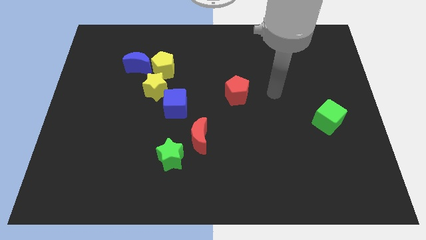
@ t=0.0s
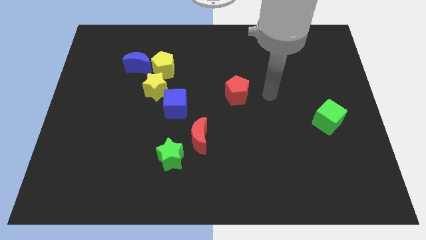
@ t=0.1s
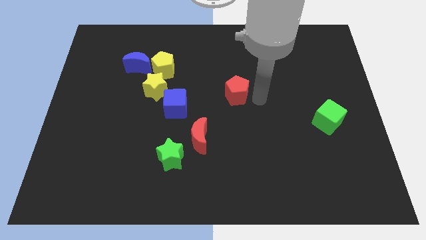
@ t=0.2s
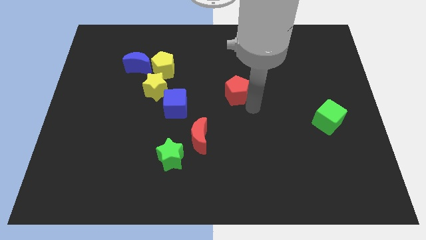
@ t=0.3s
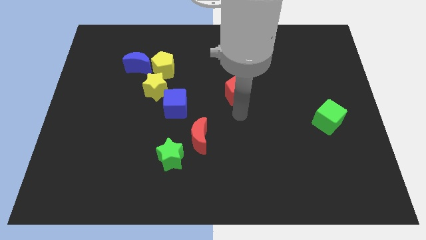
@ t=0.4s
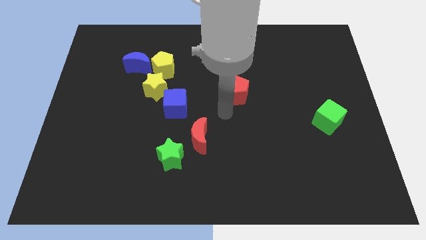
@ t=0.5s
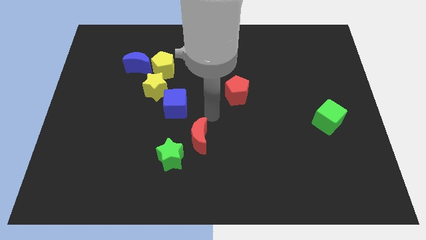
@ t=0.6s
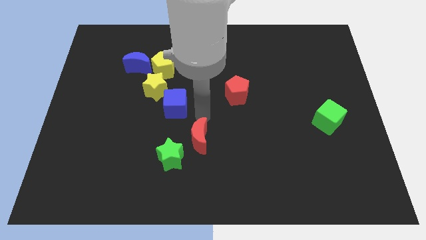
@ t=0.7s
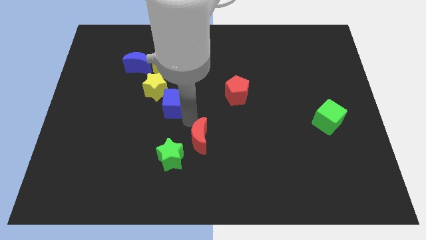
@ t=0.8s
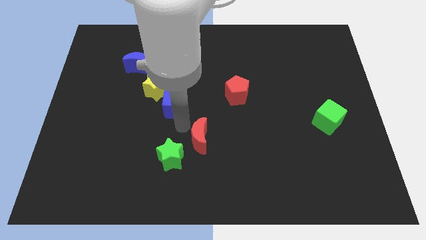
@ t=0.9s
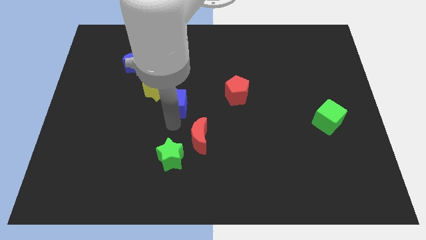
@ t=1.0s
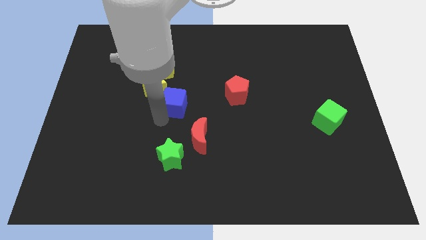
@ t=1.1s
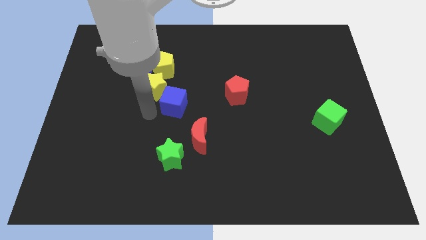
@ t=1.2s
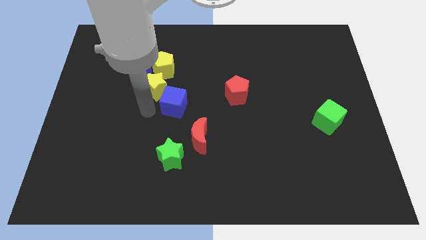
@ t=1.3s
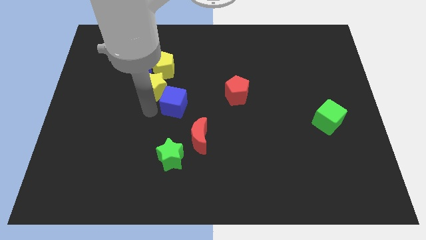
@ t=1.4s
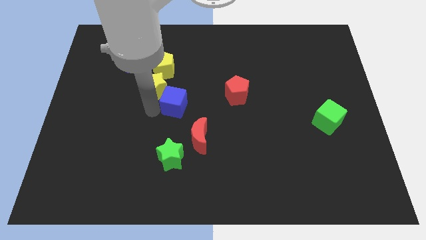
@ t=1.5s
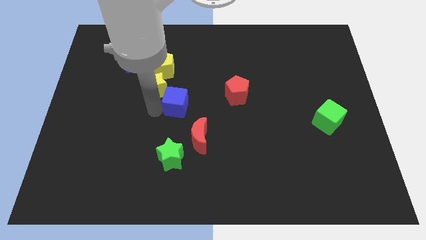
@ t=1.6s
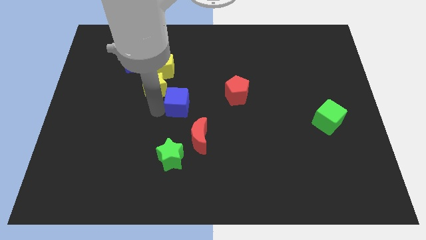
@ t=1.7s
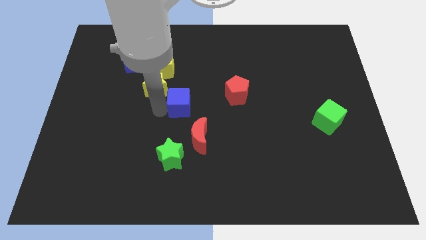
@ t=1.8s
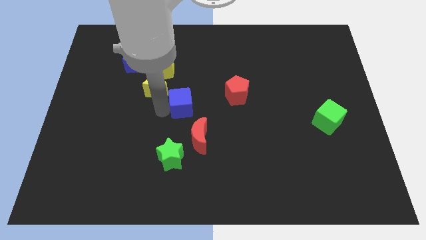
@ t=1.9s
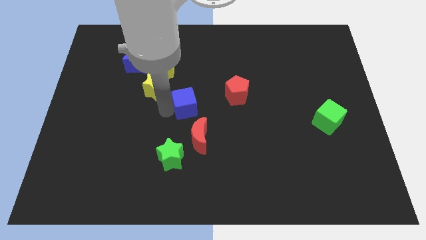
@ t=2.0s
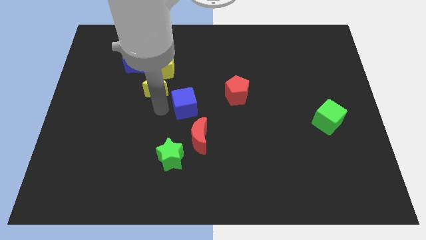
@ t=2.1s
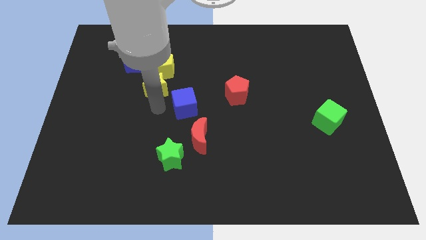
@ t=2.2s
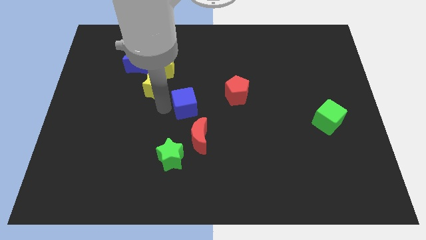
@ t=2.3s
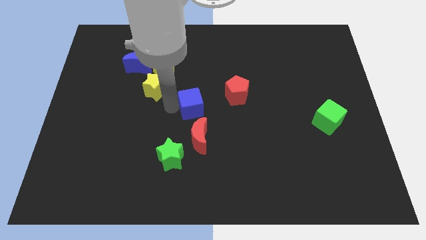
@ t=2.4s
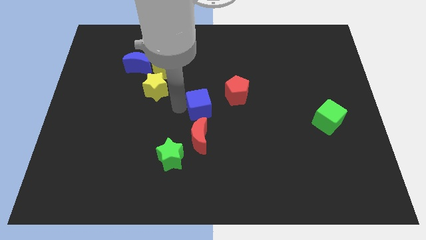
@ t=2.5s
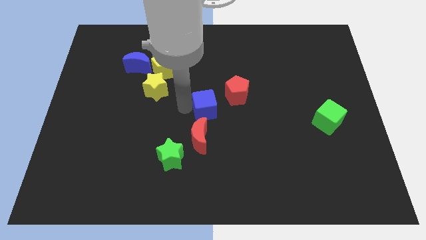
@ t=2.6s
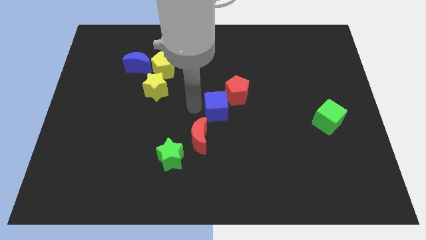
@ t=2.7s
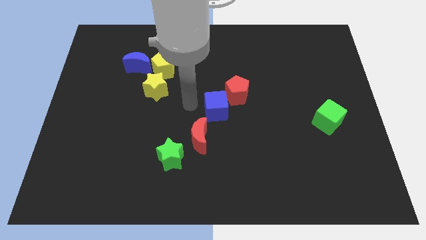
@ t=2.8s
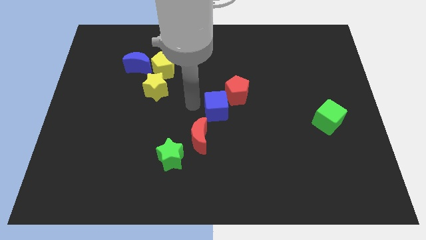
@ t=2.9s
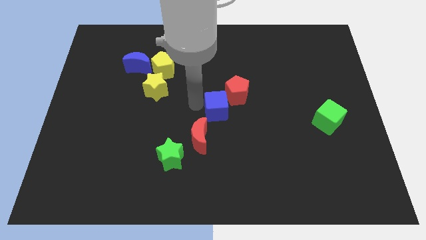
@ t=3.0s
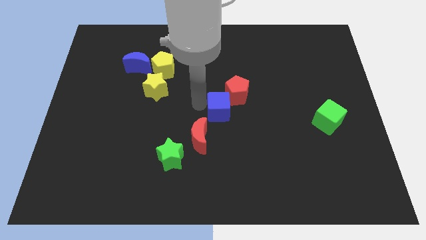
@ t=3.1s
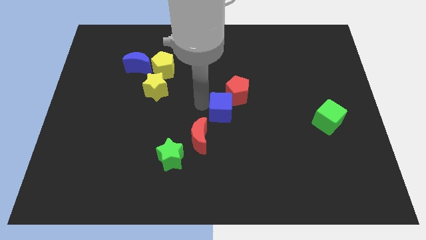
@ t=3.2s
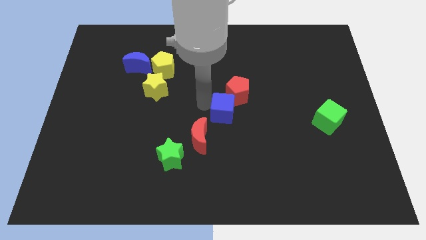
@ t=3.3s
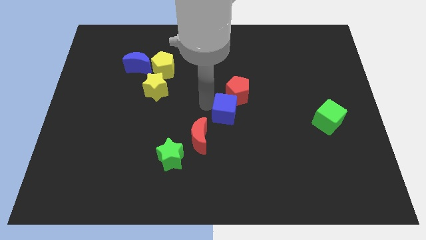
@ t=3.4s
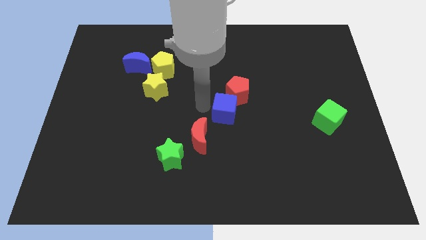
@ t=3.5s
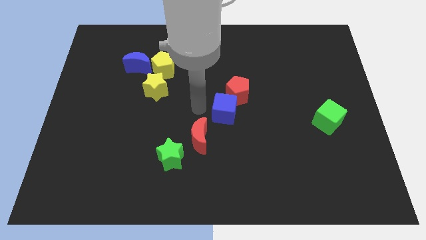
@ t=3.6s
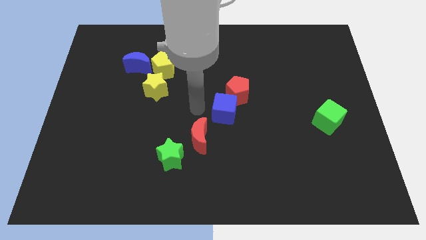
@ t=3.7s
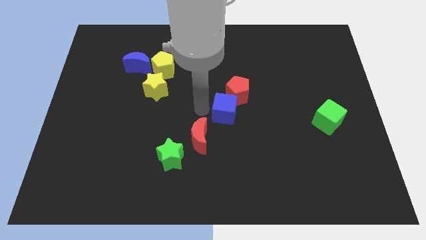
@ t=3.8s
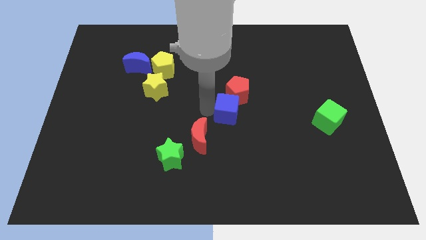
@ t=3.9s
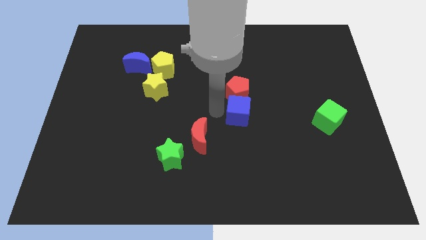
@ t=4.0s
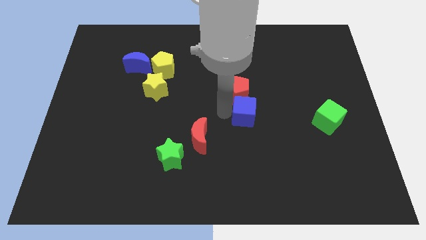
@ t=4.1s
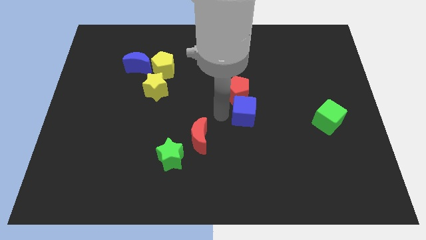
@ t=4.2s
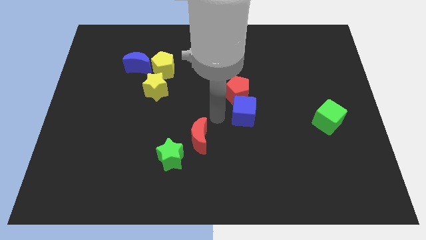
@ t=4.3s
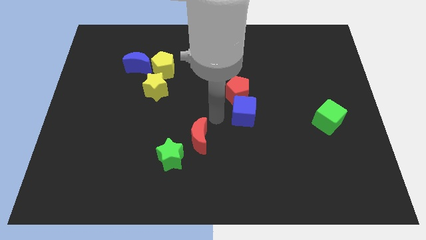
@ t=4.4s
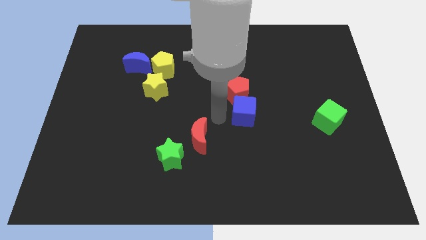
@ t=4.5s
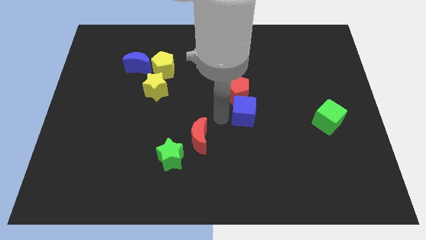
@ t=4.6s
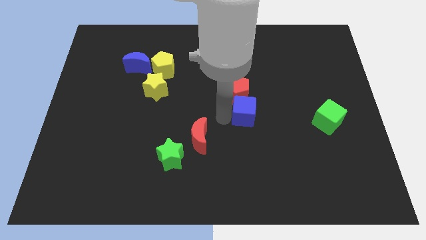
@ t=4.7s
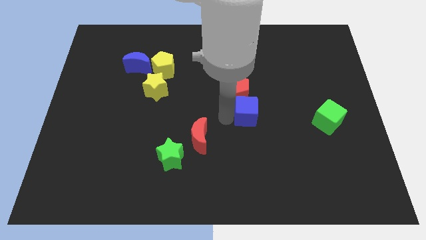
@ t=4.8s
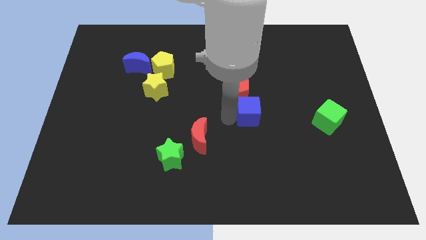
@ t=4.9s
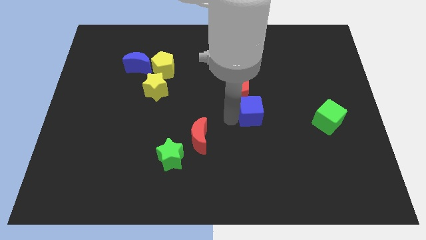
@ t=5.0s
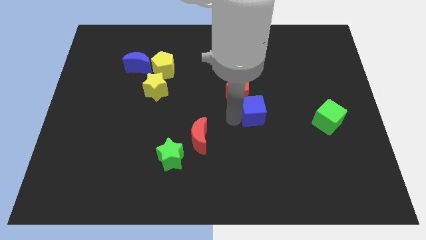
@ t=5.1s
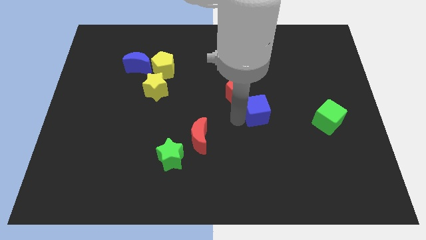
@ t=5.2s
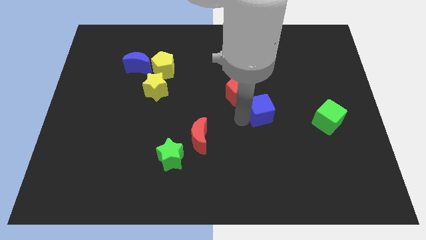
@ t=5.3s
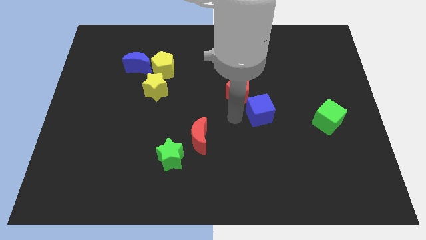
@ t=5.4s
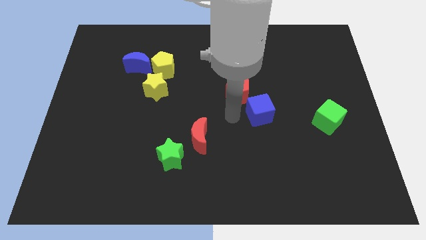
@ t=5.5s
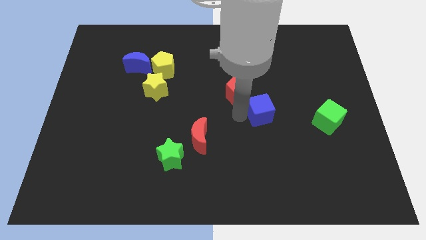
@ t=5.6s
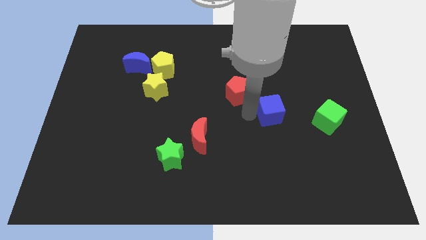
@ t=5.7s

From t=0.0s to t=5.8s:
slide the blue cube to the right

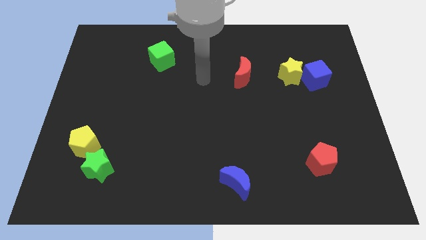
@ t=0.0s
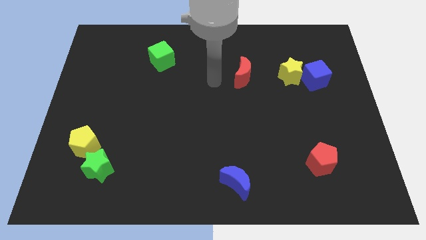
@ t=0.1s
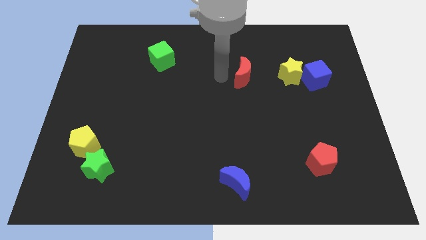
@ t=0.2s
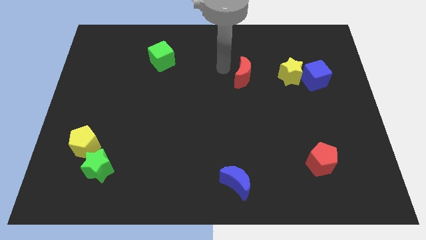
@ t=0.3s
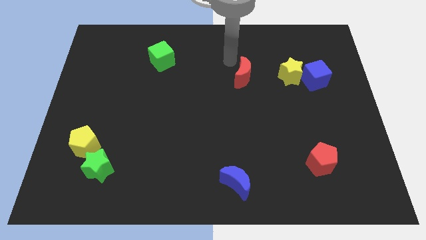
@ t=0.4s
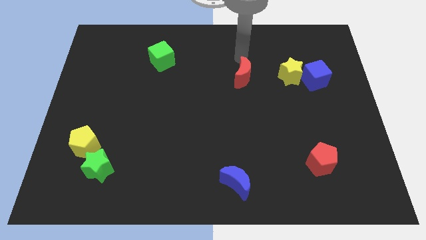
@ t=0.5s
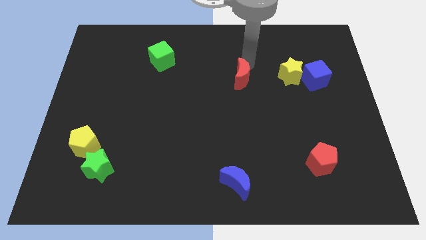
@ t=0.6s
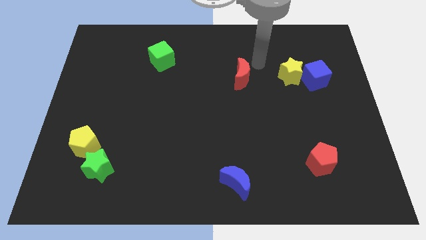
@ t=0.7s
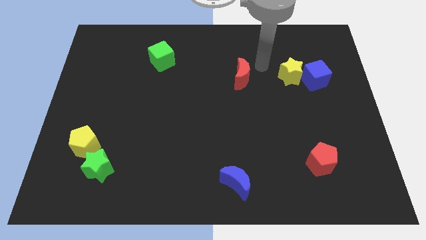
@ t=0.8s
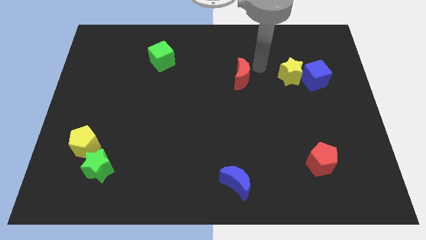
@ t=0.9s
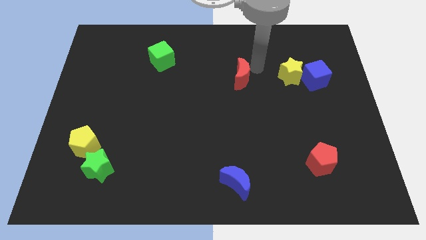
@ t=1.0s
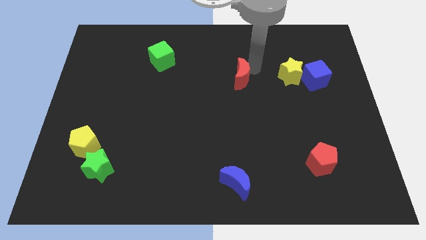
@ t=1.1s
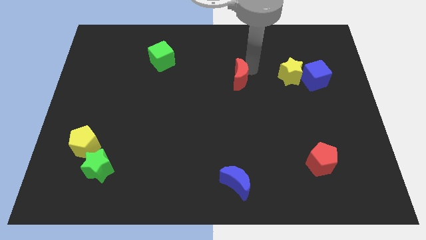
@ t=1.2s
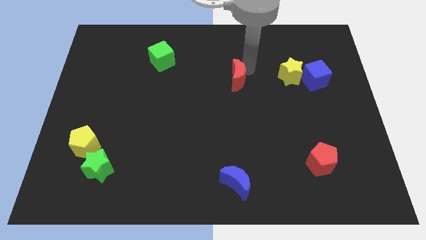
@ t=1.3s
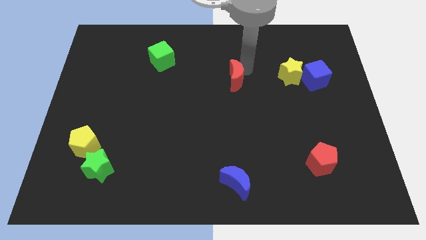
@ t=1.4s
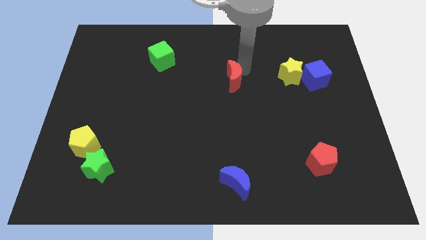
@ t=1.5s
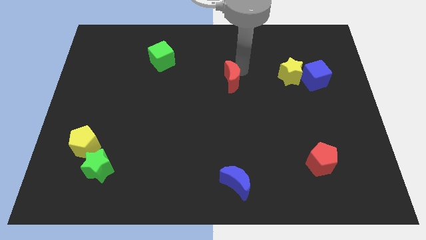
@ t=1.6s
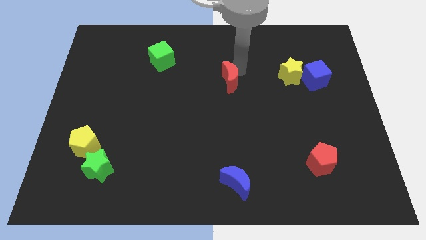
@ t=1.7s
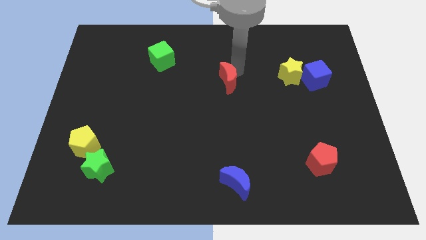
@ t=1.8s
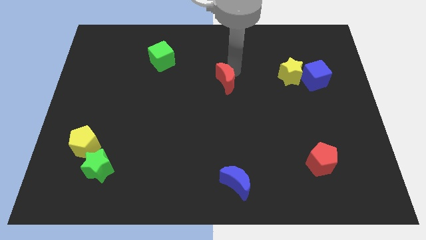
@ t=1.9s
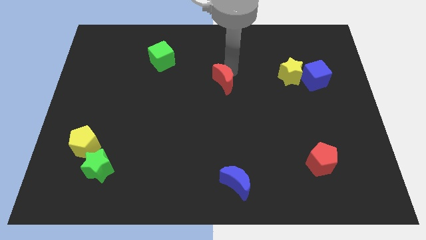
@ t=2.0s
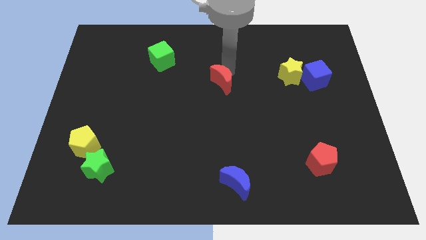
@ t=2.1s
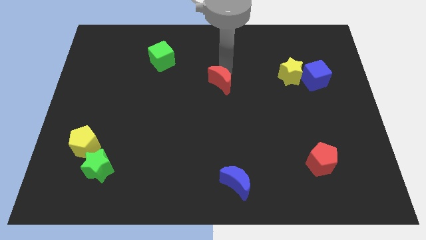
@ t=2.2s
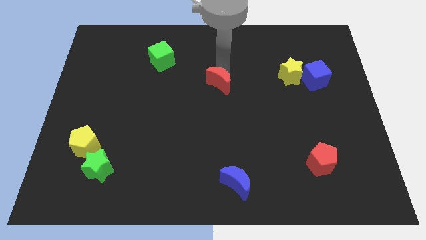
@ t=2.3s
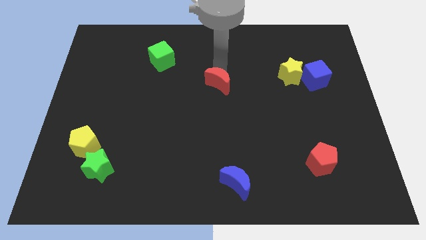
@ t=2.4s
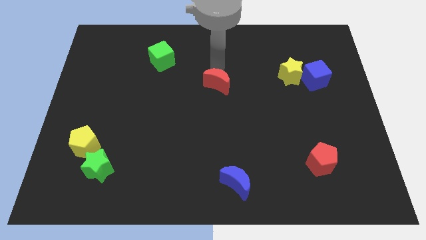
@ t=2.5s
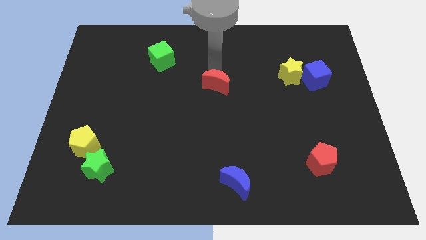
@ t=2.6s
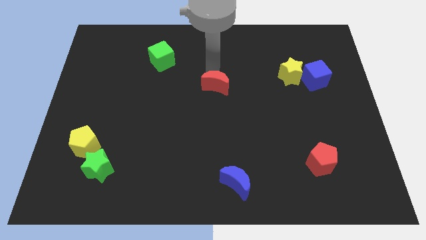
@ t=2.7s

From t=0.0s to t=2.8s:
slightly push the red moon diagonally down and left

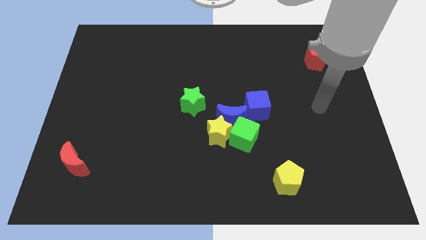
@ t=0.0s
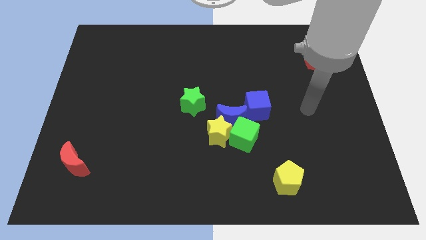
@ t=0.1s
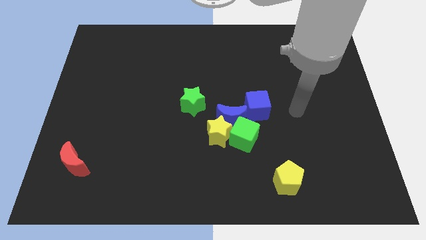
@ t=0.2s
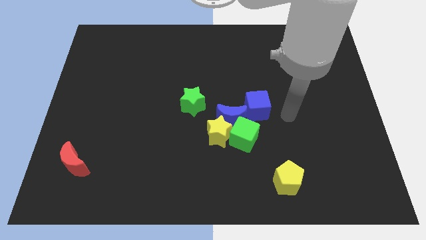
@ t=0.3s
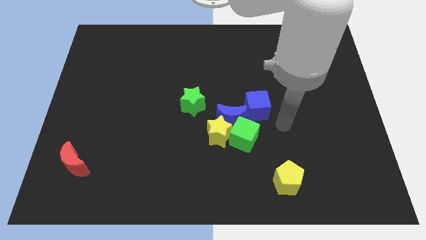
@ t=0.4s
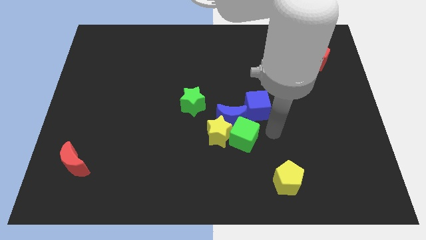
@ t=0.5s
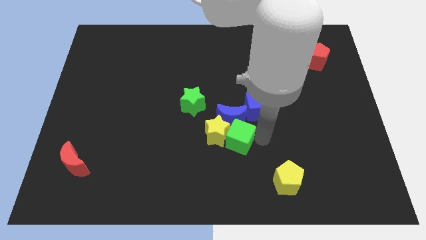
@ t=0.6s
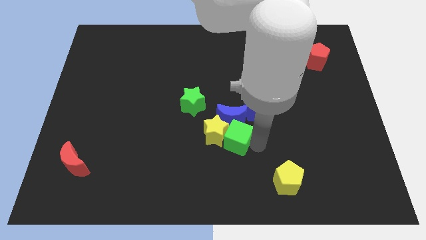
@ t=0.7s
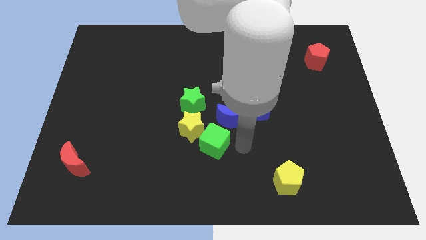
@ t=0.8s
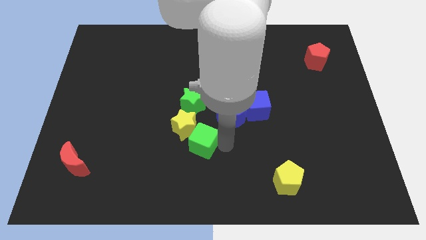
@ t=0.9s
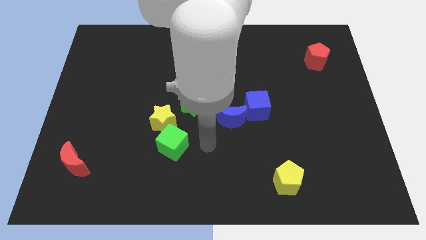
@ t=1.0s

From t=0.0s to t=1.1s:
move the yellow star diagonally up and to the left a little bit
